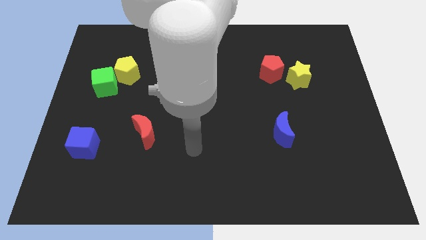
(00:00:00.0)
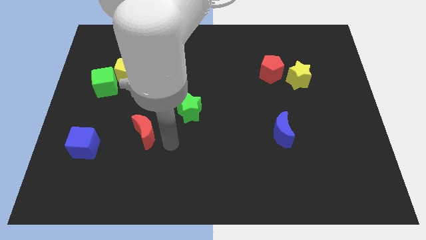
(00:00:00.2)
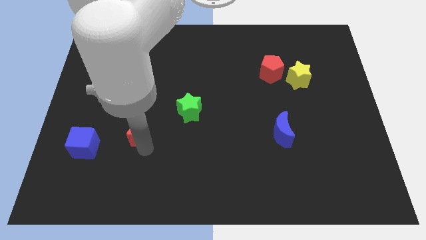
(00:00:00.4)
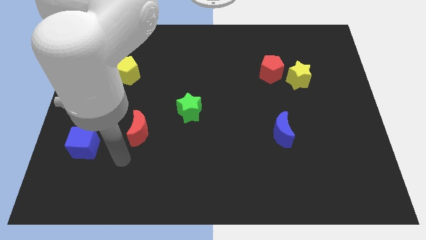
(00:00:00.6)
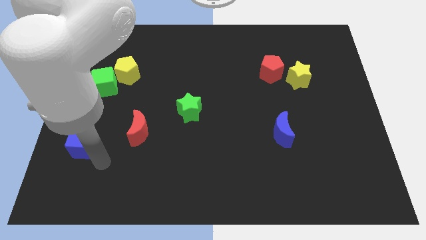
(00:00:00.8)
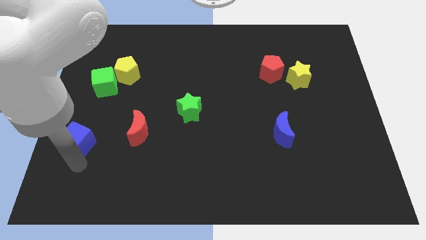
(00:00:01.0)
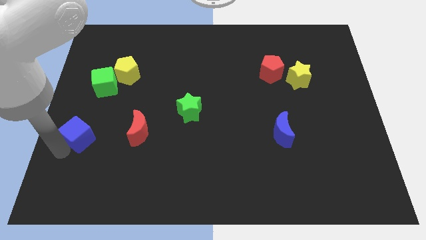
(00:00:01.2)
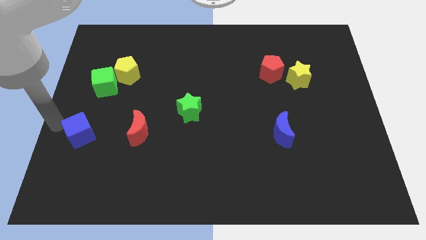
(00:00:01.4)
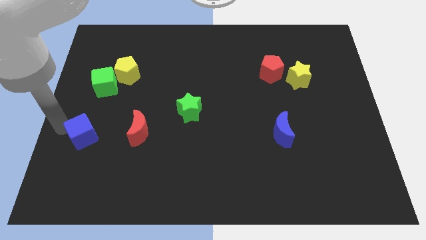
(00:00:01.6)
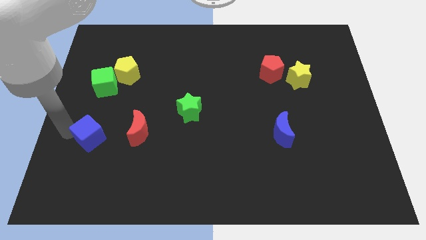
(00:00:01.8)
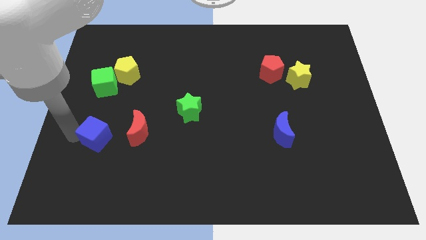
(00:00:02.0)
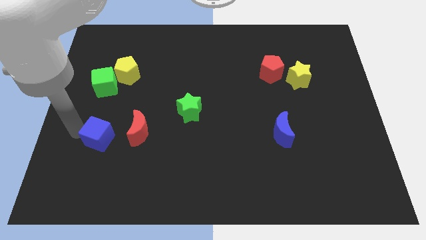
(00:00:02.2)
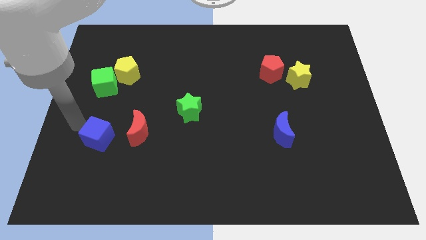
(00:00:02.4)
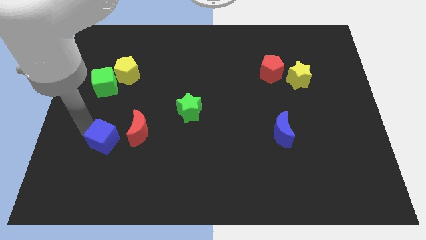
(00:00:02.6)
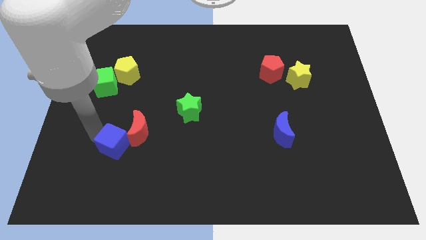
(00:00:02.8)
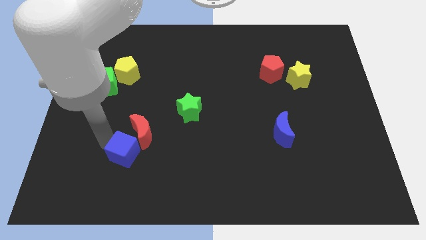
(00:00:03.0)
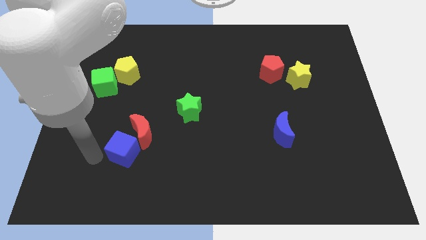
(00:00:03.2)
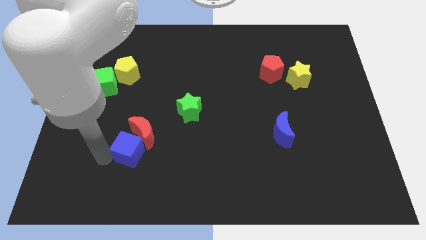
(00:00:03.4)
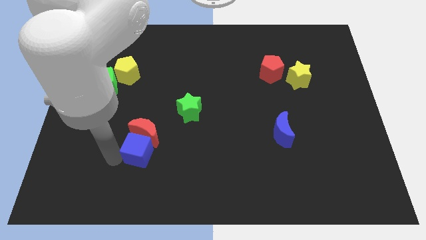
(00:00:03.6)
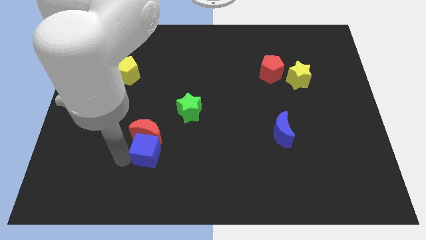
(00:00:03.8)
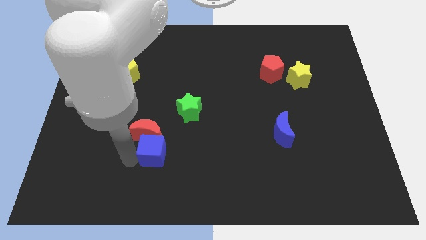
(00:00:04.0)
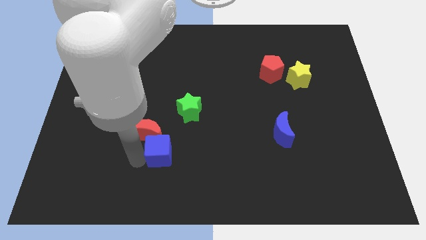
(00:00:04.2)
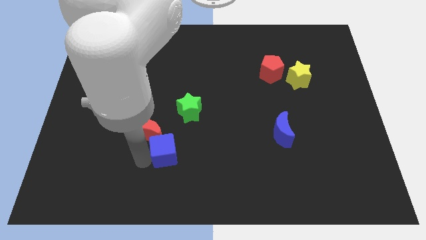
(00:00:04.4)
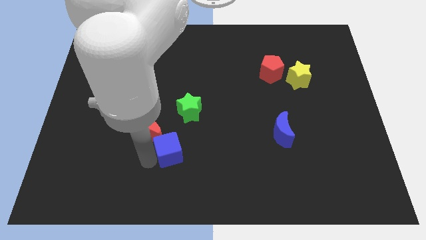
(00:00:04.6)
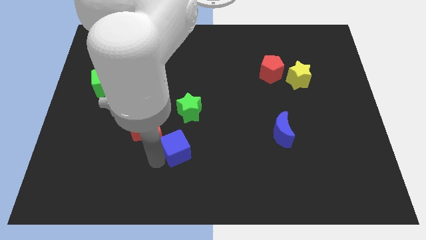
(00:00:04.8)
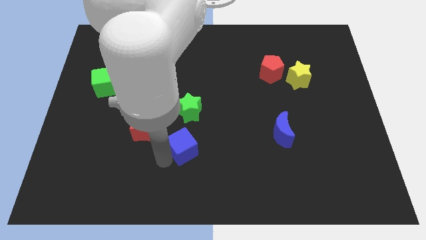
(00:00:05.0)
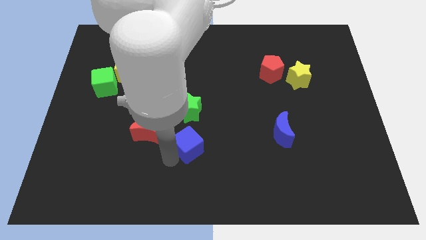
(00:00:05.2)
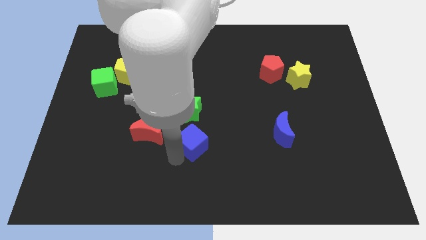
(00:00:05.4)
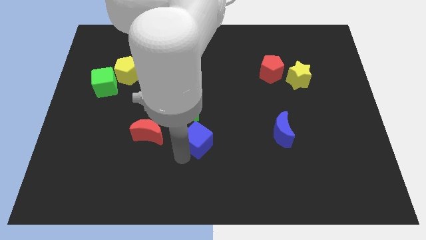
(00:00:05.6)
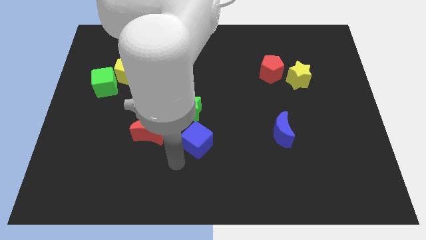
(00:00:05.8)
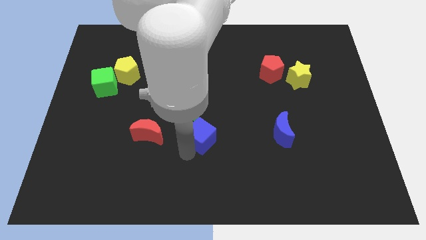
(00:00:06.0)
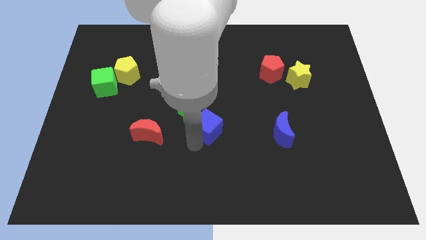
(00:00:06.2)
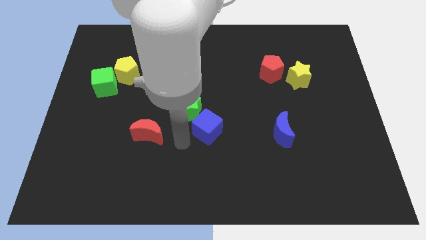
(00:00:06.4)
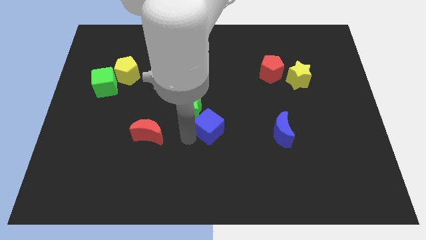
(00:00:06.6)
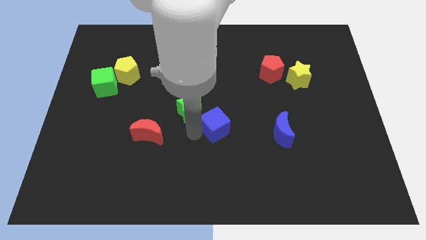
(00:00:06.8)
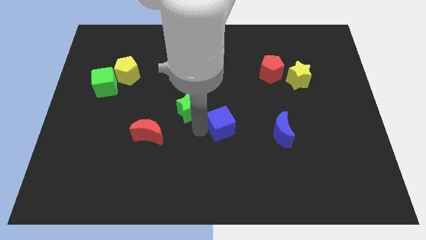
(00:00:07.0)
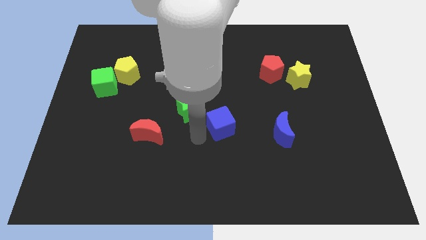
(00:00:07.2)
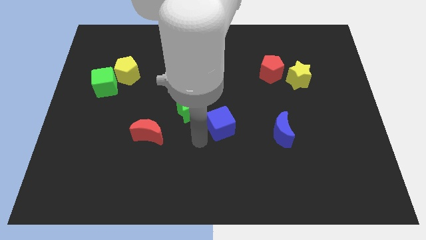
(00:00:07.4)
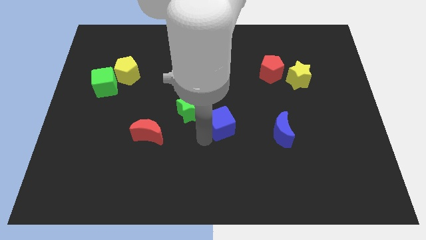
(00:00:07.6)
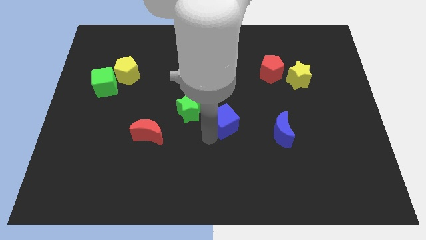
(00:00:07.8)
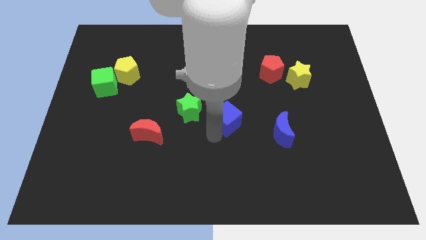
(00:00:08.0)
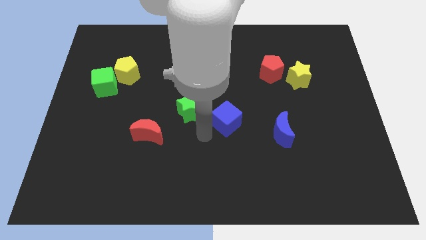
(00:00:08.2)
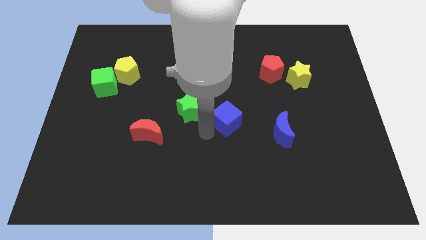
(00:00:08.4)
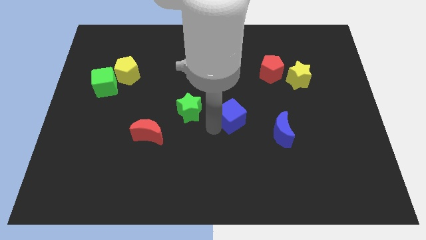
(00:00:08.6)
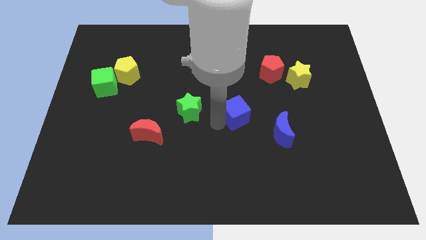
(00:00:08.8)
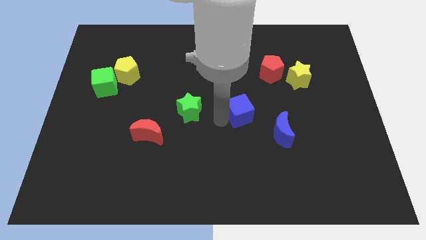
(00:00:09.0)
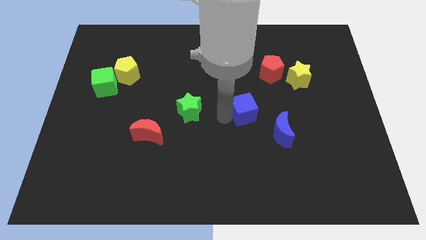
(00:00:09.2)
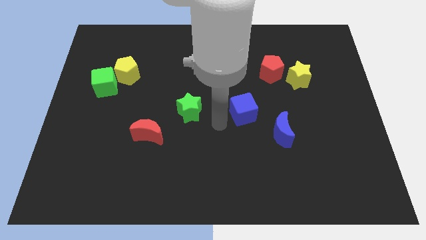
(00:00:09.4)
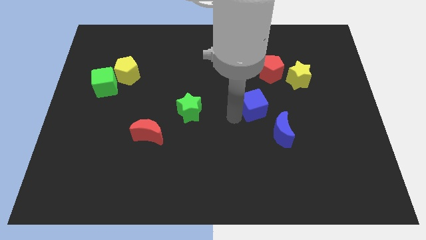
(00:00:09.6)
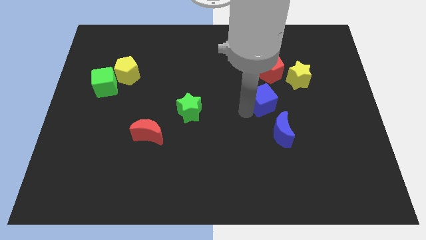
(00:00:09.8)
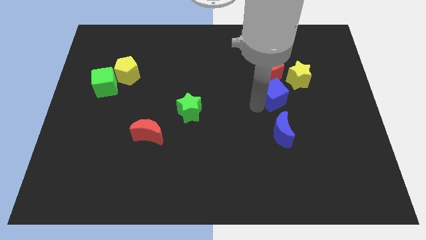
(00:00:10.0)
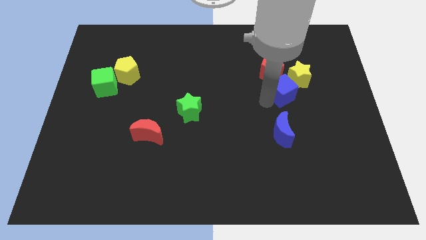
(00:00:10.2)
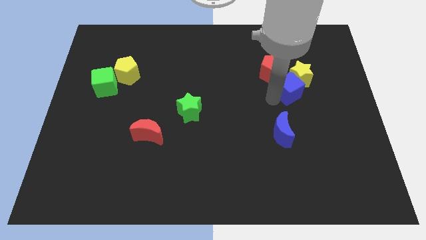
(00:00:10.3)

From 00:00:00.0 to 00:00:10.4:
slide the blue cube towards the yellow star

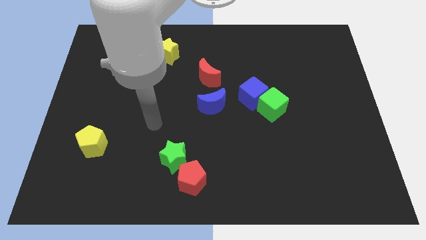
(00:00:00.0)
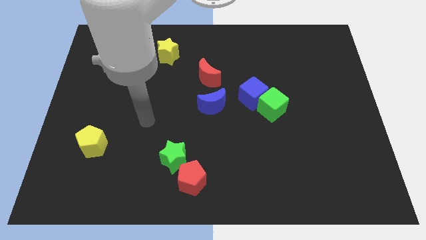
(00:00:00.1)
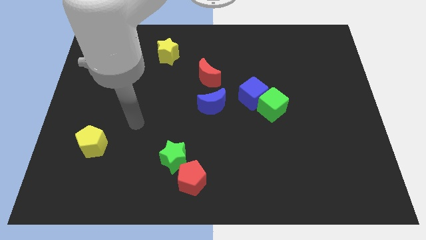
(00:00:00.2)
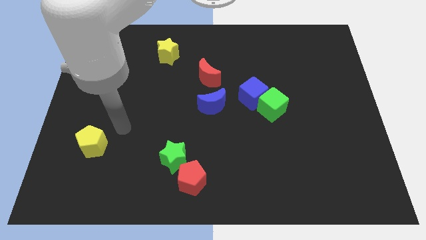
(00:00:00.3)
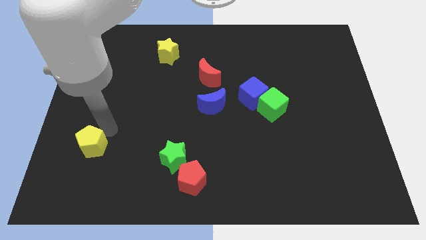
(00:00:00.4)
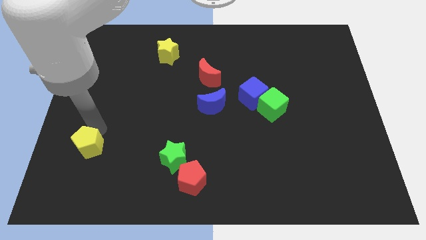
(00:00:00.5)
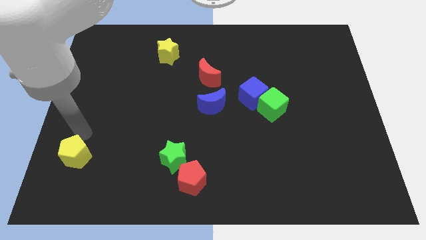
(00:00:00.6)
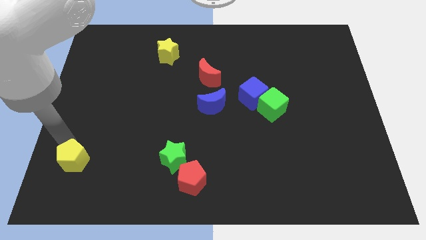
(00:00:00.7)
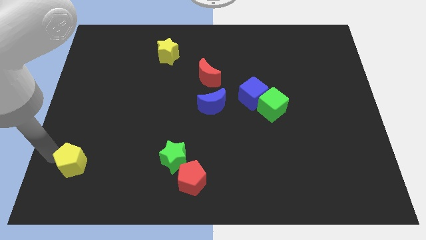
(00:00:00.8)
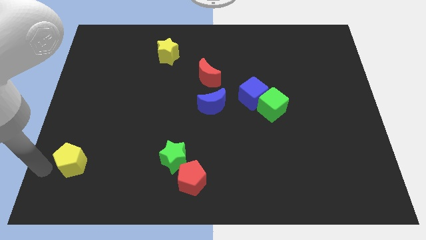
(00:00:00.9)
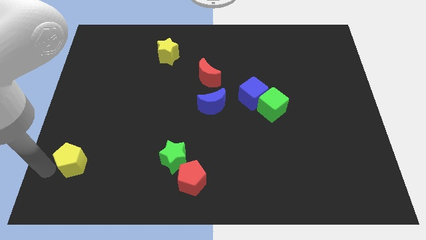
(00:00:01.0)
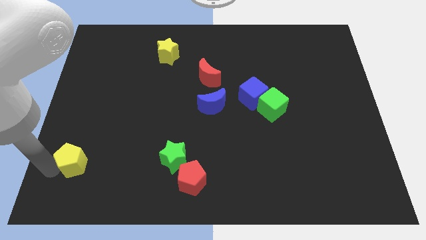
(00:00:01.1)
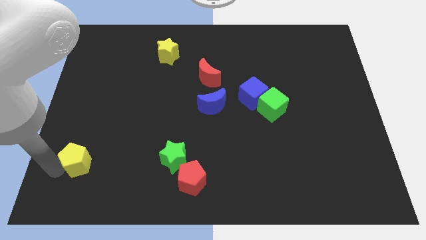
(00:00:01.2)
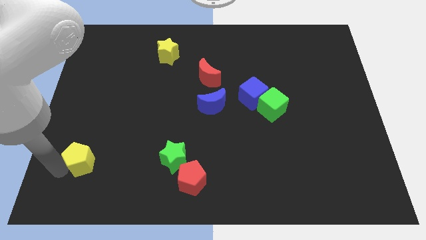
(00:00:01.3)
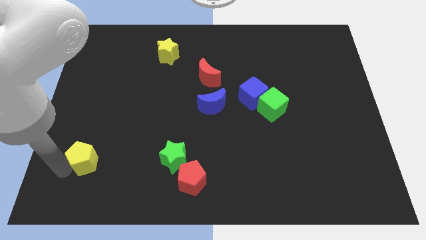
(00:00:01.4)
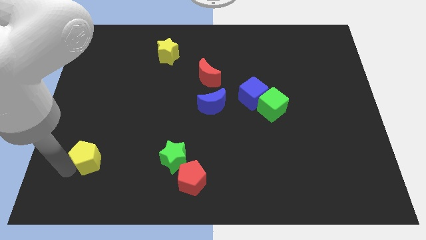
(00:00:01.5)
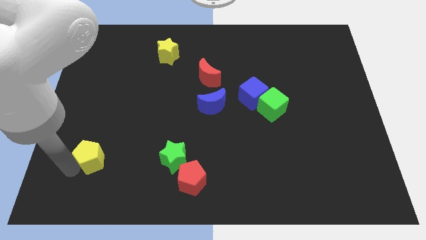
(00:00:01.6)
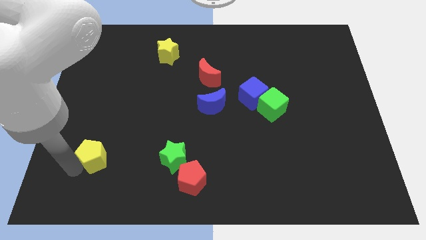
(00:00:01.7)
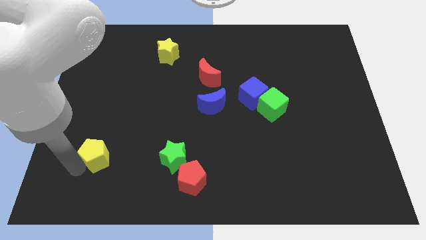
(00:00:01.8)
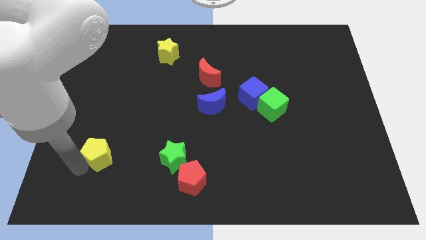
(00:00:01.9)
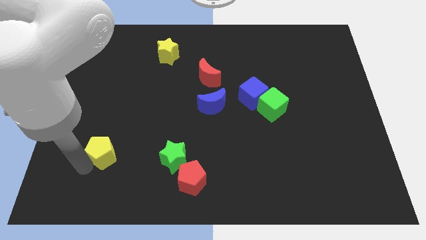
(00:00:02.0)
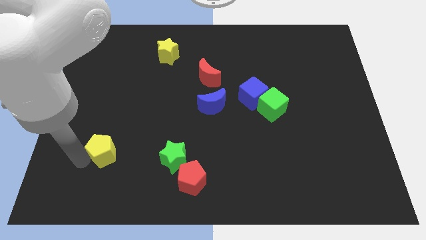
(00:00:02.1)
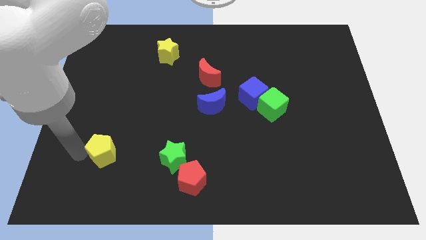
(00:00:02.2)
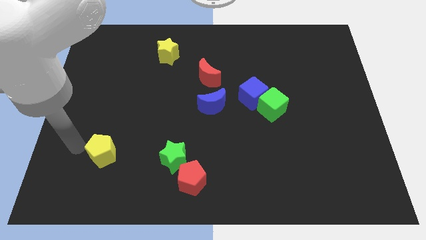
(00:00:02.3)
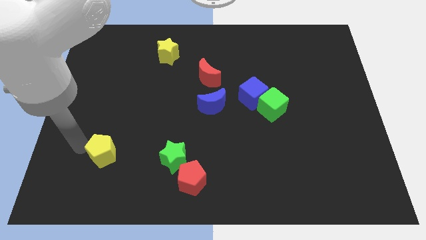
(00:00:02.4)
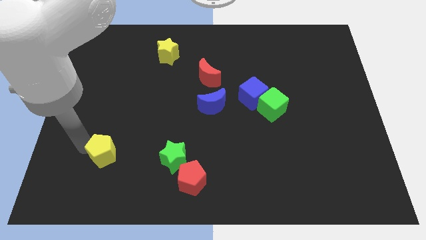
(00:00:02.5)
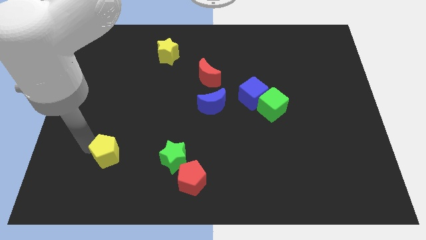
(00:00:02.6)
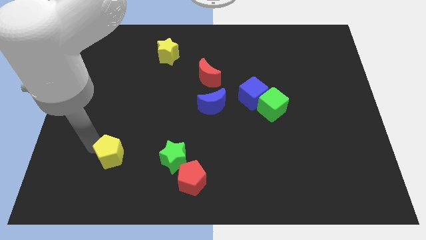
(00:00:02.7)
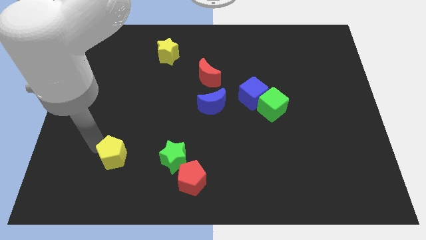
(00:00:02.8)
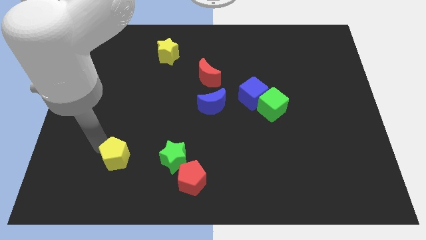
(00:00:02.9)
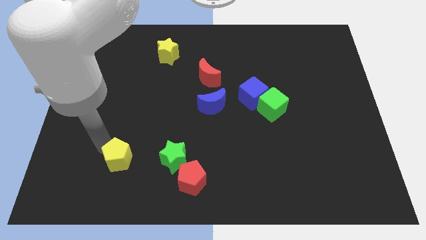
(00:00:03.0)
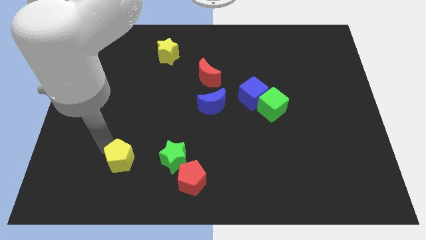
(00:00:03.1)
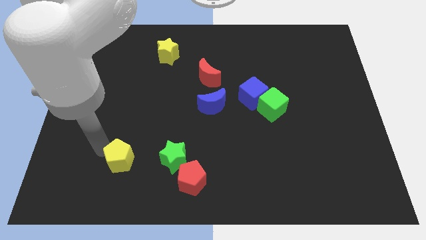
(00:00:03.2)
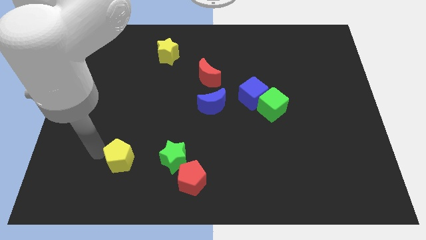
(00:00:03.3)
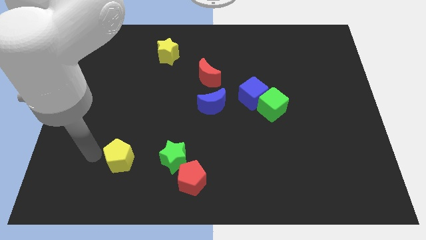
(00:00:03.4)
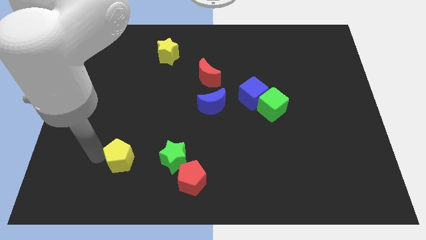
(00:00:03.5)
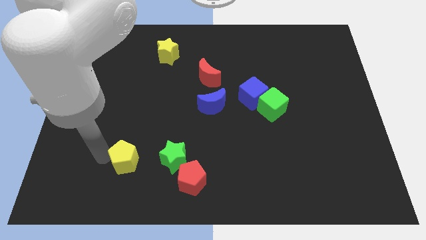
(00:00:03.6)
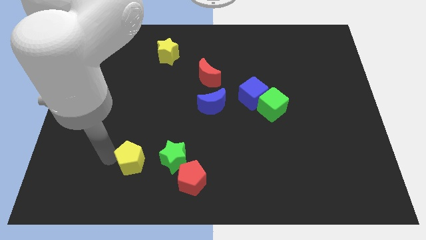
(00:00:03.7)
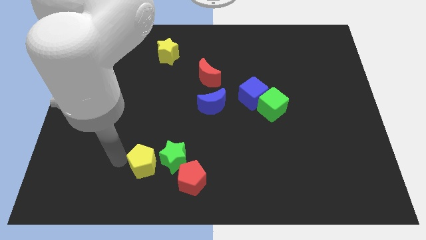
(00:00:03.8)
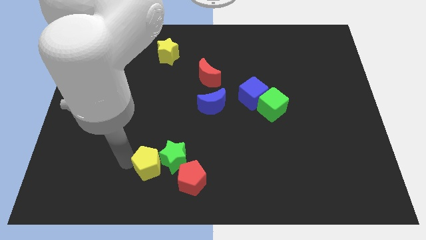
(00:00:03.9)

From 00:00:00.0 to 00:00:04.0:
slide the yellow pentagon to the green star
